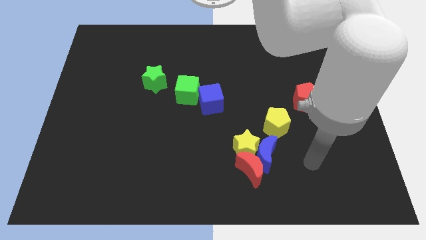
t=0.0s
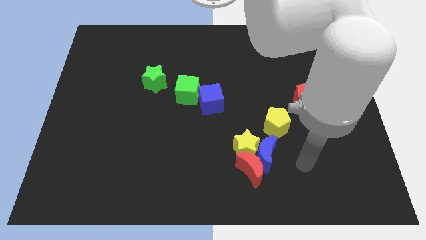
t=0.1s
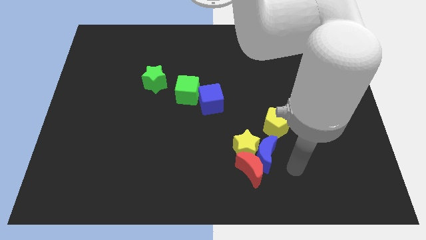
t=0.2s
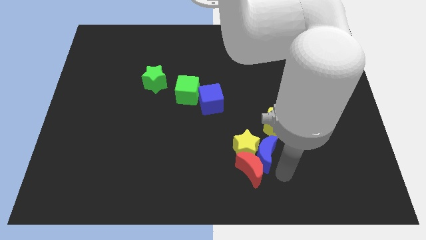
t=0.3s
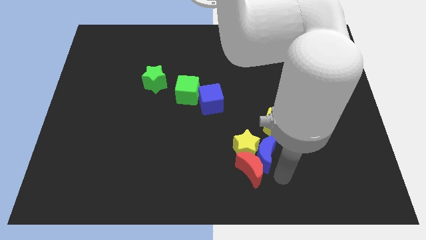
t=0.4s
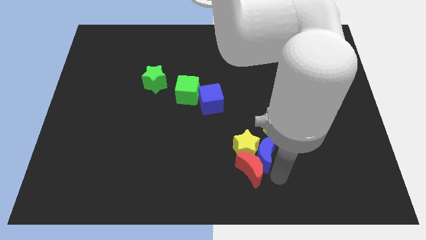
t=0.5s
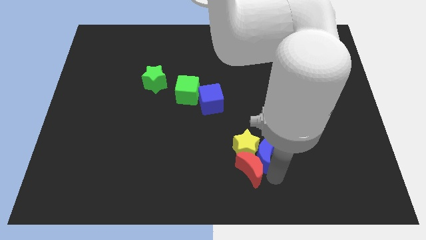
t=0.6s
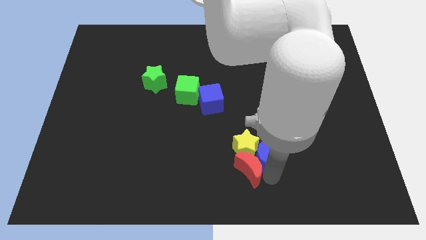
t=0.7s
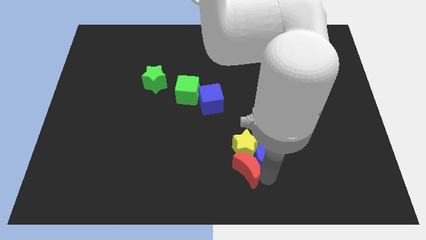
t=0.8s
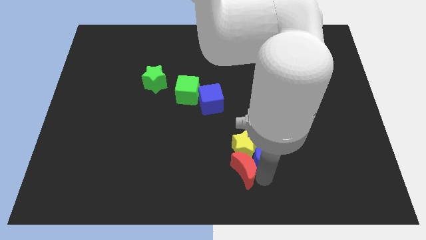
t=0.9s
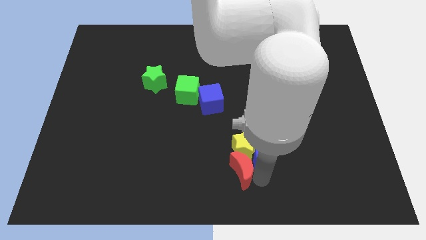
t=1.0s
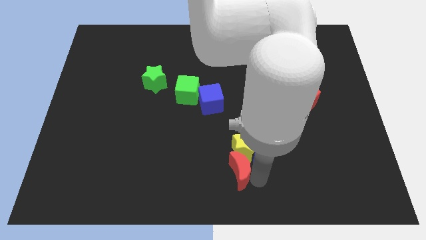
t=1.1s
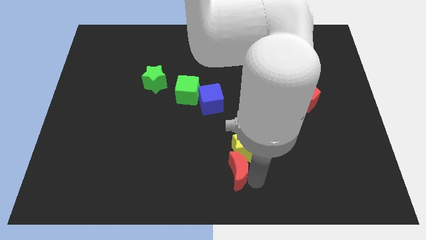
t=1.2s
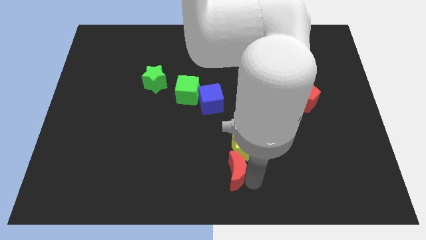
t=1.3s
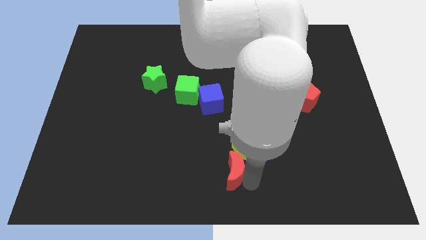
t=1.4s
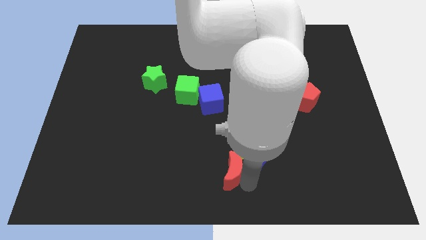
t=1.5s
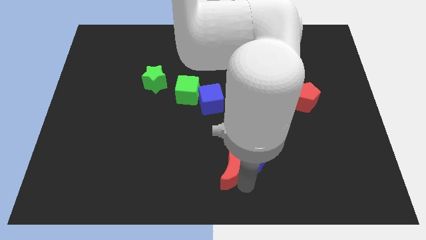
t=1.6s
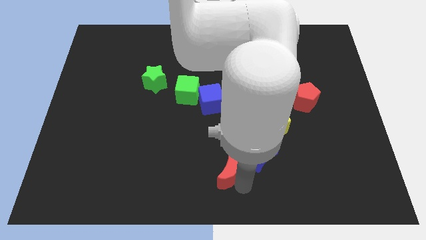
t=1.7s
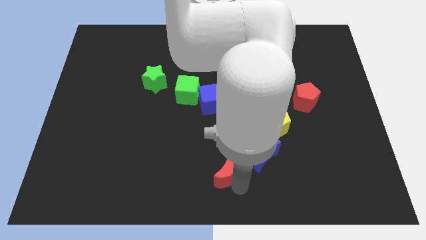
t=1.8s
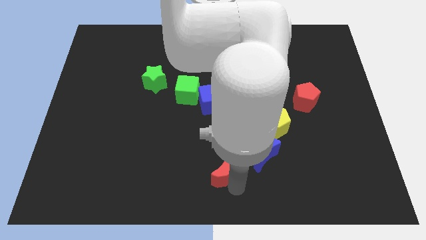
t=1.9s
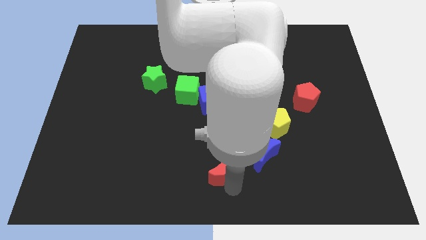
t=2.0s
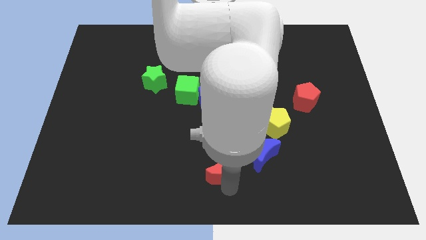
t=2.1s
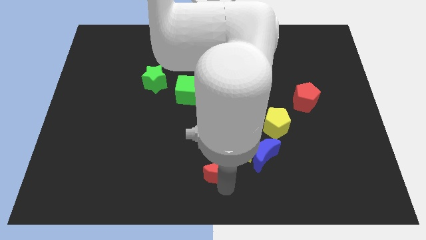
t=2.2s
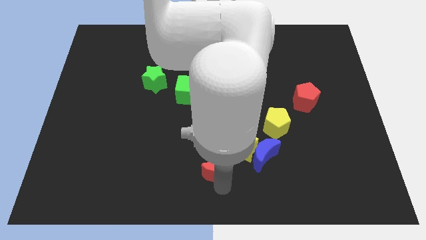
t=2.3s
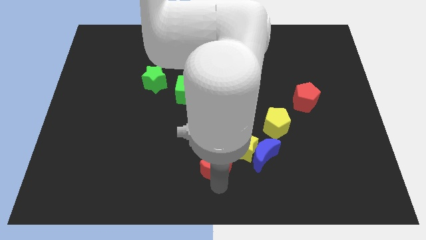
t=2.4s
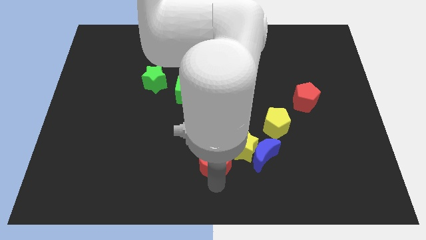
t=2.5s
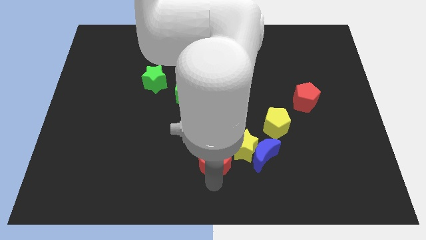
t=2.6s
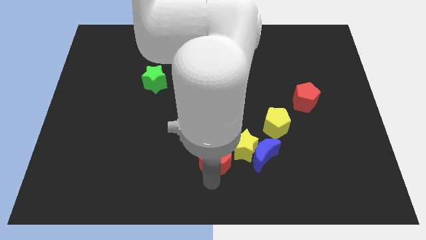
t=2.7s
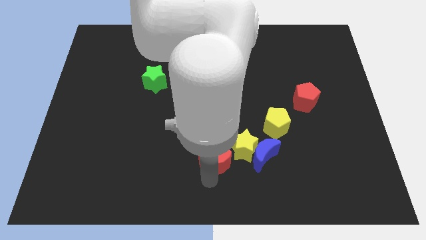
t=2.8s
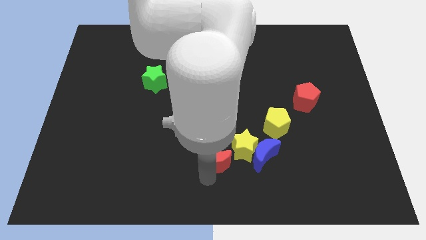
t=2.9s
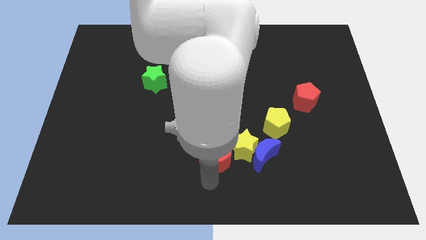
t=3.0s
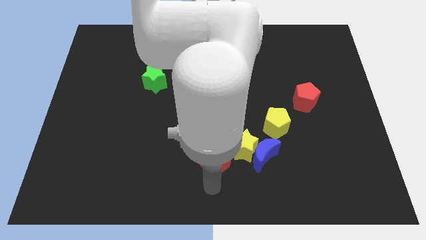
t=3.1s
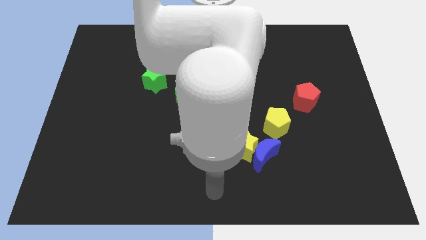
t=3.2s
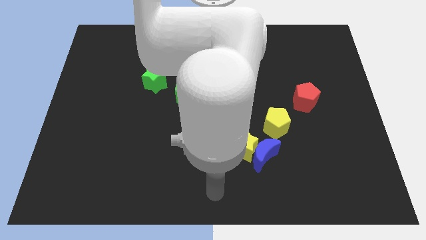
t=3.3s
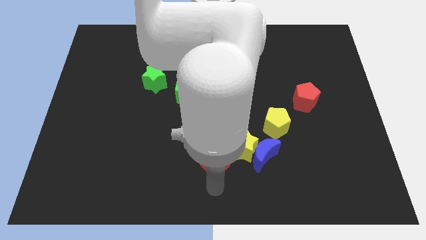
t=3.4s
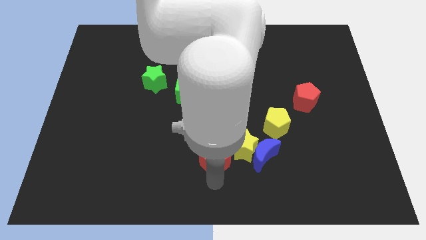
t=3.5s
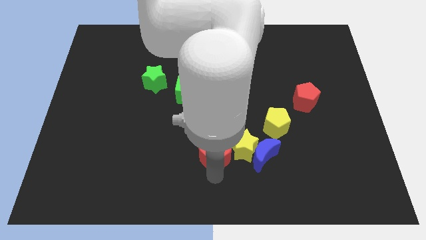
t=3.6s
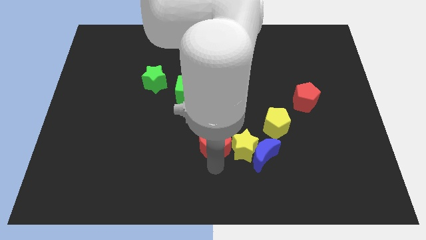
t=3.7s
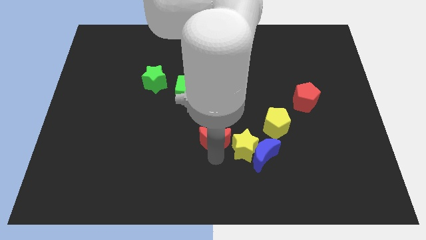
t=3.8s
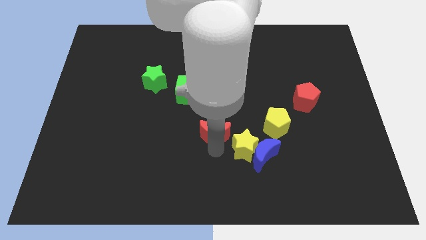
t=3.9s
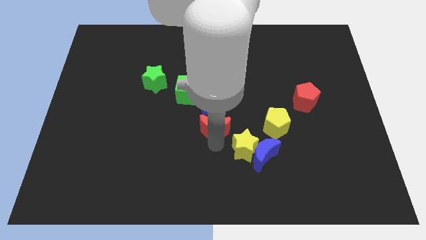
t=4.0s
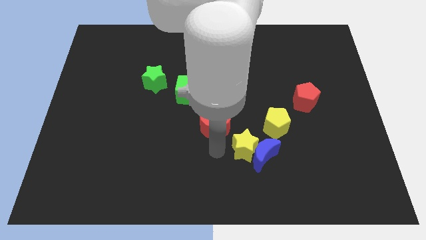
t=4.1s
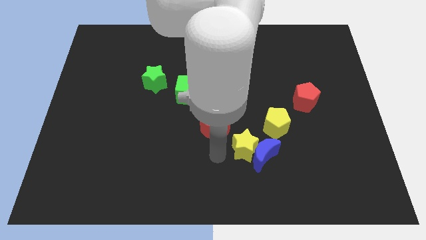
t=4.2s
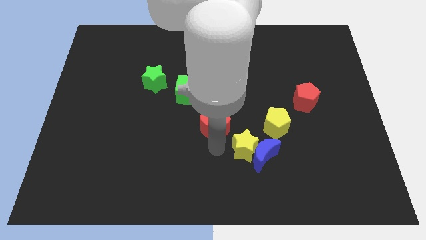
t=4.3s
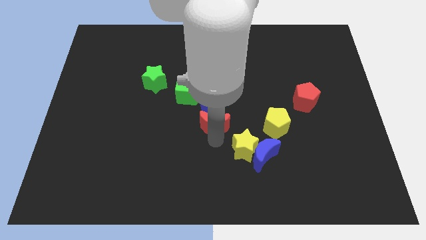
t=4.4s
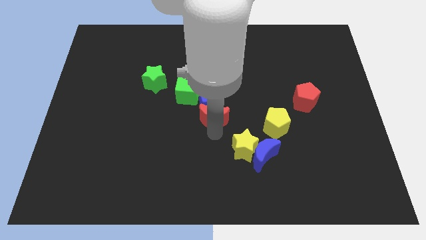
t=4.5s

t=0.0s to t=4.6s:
slide the red moon to the blue cube

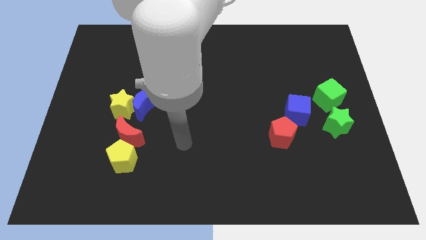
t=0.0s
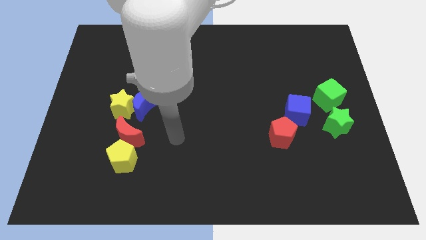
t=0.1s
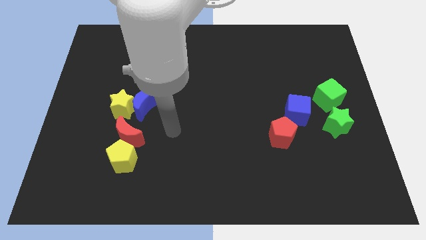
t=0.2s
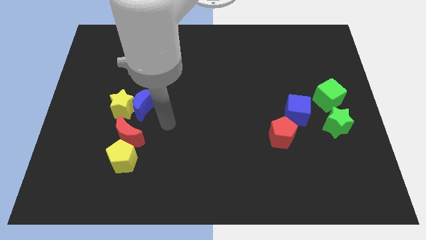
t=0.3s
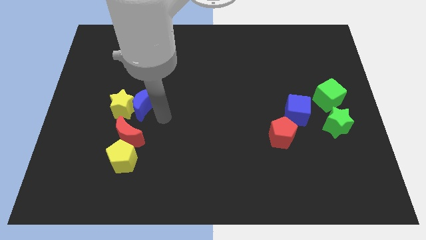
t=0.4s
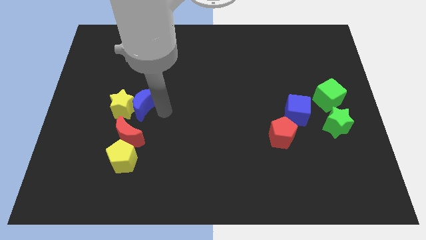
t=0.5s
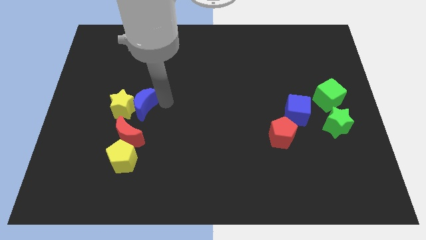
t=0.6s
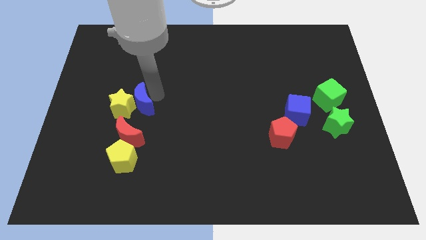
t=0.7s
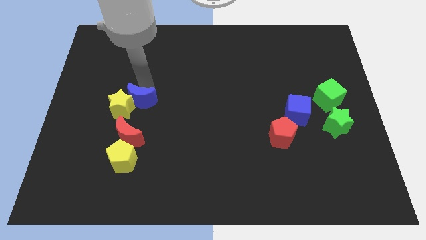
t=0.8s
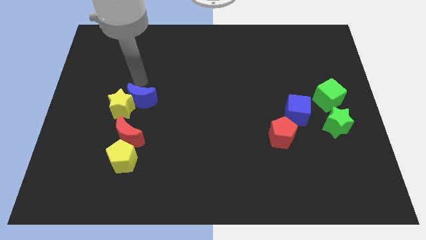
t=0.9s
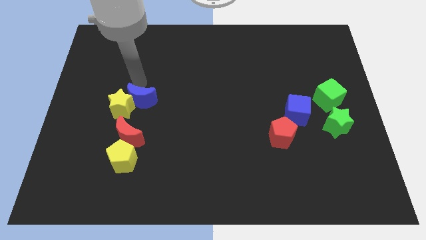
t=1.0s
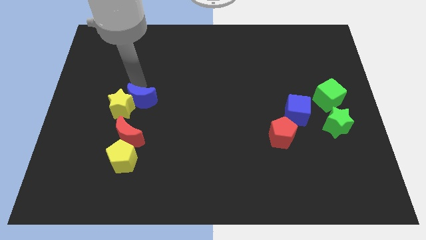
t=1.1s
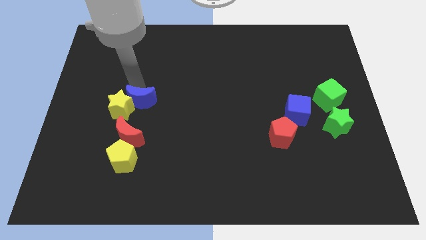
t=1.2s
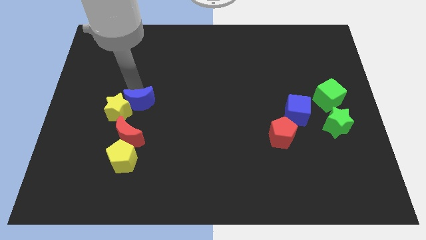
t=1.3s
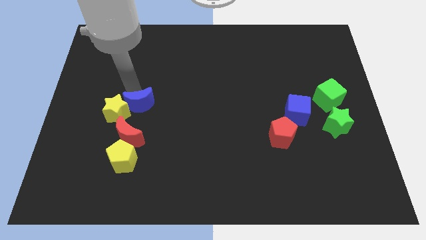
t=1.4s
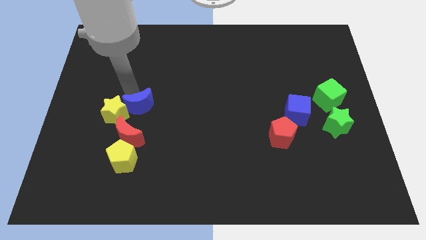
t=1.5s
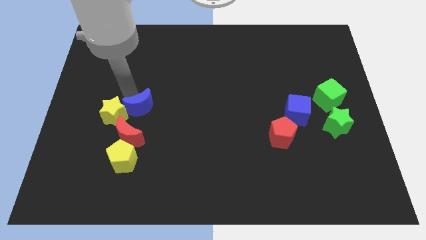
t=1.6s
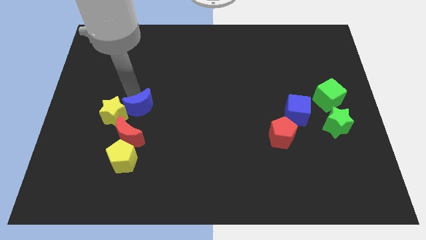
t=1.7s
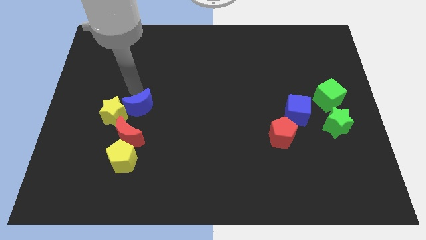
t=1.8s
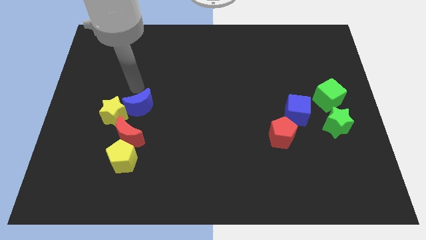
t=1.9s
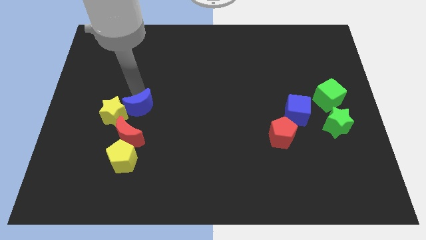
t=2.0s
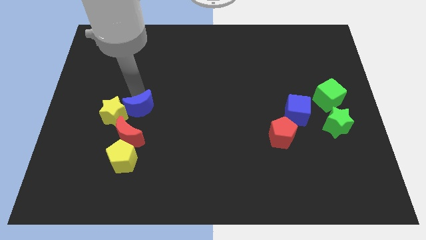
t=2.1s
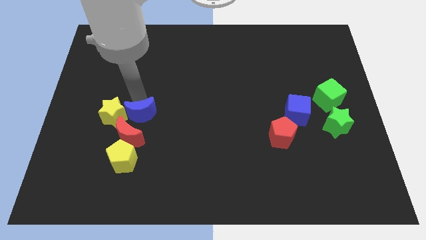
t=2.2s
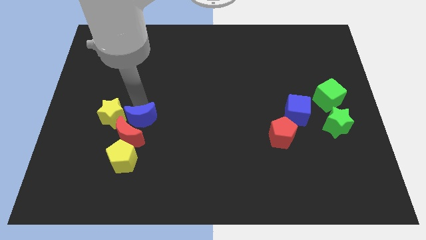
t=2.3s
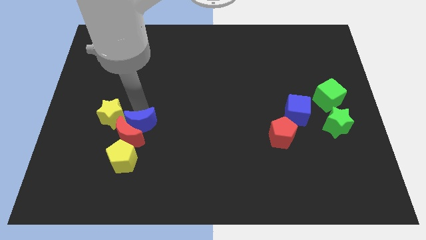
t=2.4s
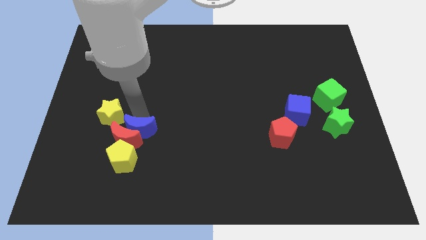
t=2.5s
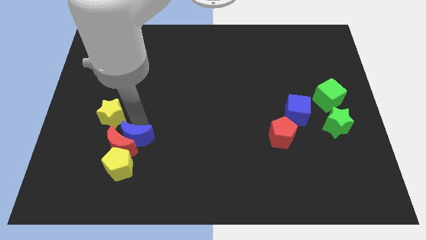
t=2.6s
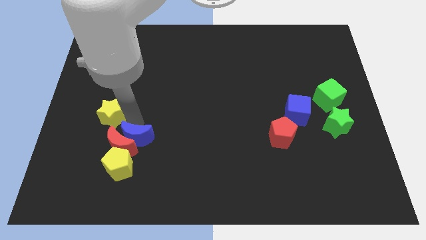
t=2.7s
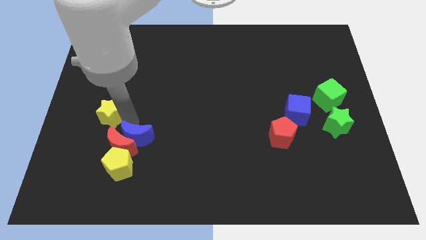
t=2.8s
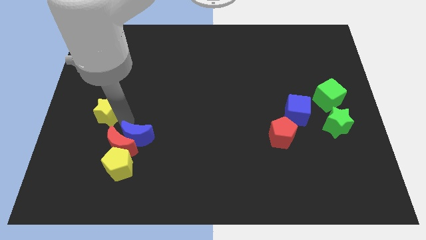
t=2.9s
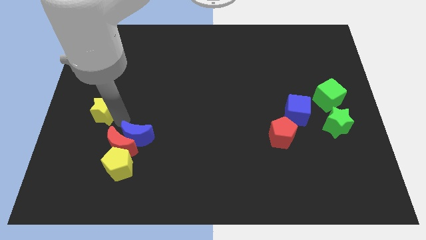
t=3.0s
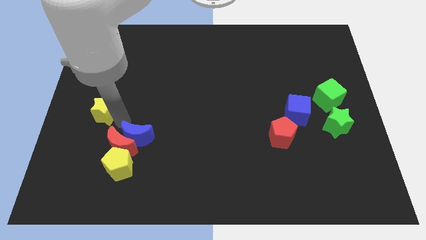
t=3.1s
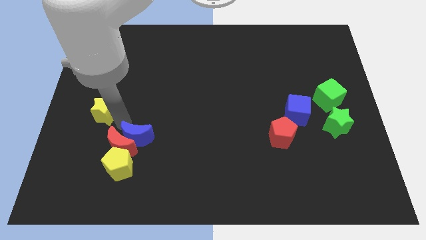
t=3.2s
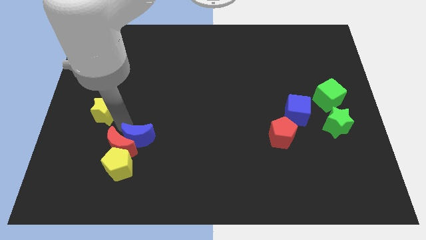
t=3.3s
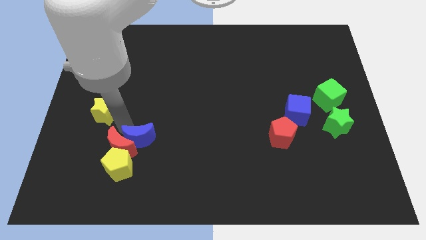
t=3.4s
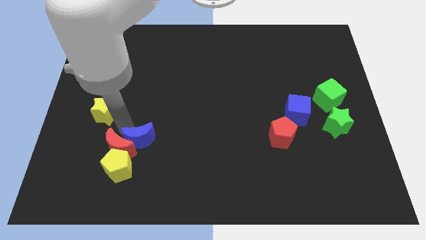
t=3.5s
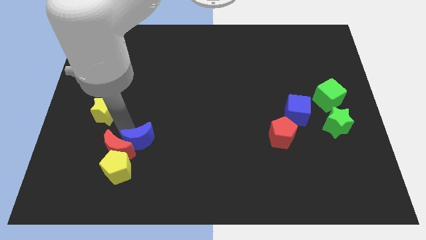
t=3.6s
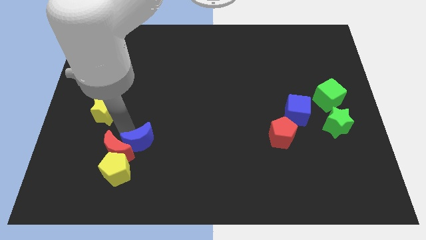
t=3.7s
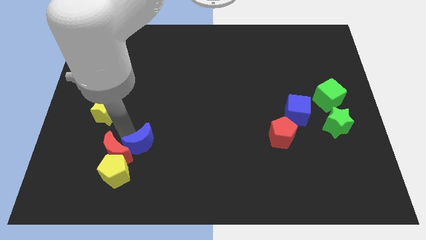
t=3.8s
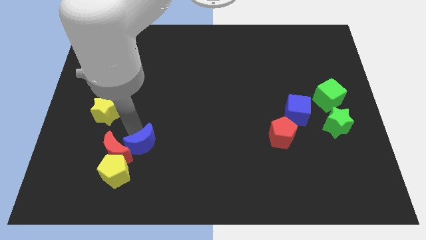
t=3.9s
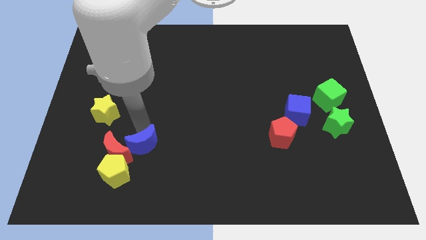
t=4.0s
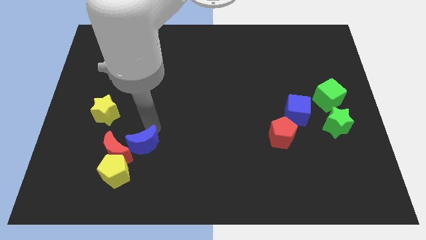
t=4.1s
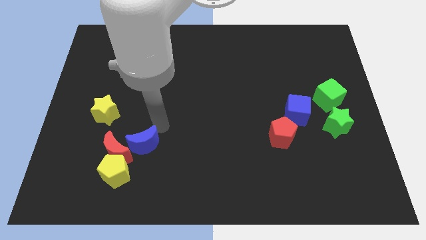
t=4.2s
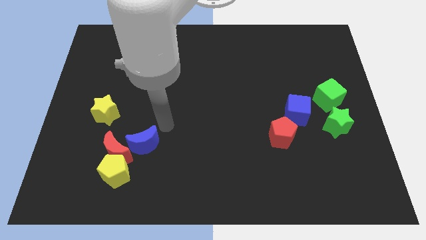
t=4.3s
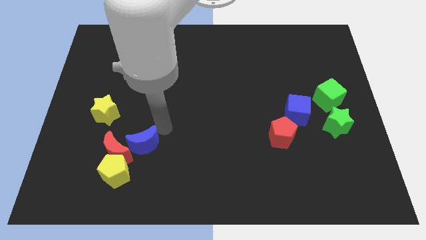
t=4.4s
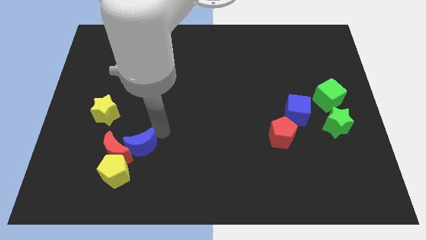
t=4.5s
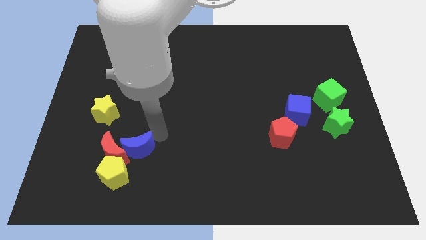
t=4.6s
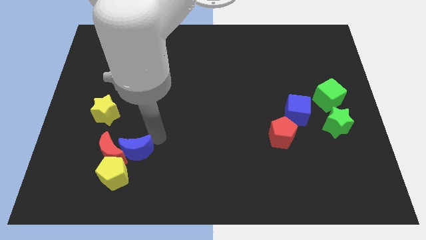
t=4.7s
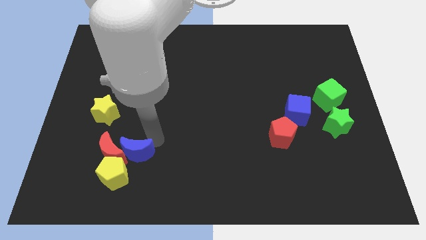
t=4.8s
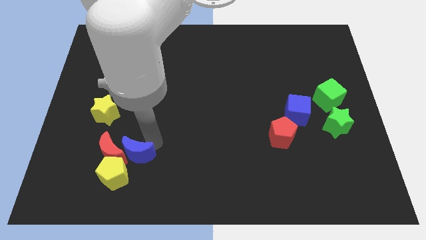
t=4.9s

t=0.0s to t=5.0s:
slide the blue moon next to the yellow pentagon
